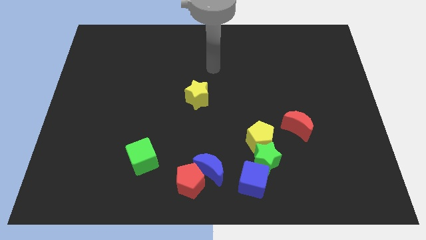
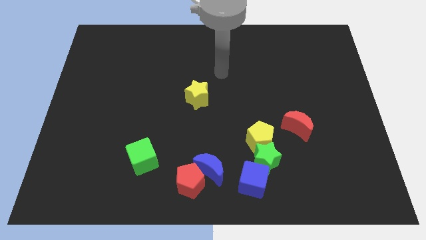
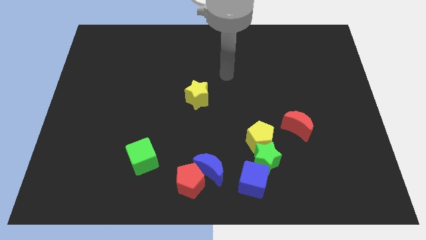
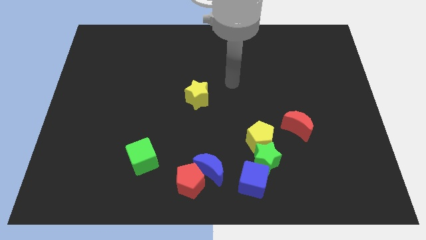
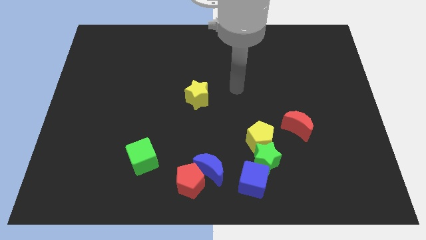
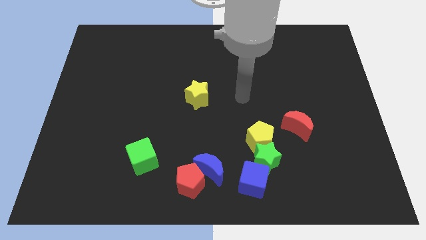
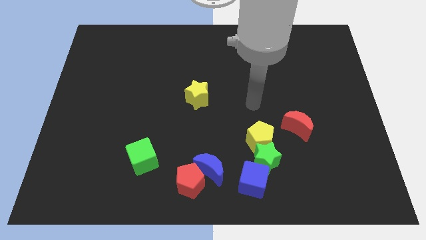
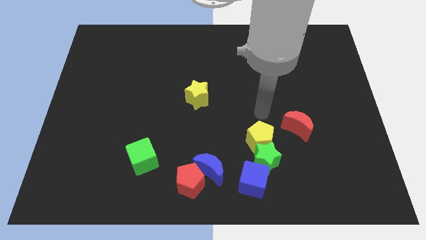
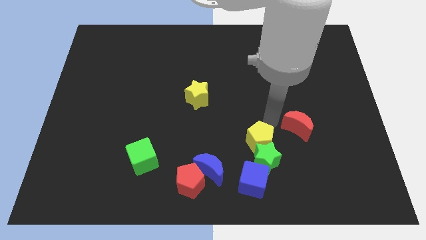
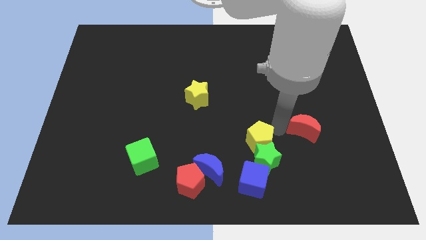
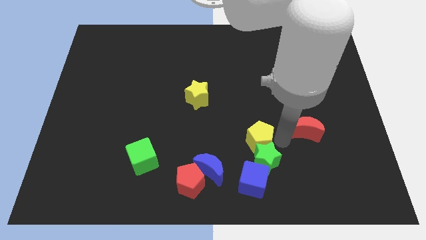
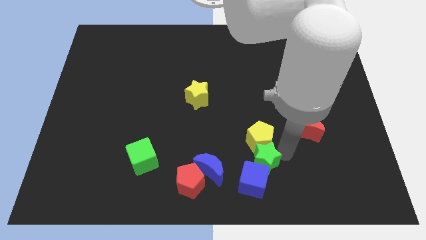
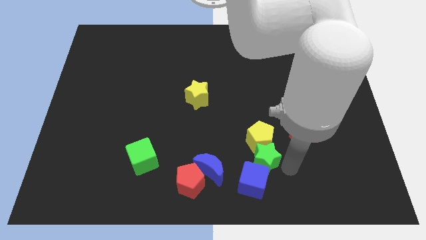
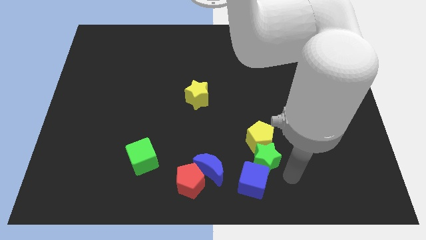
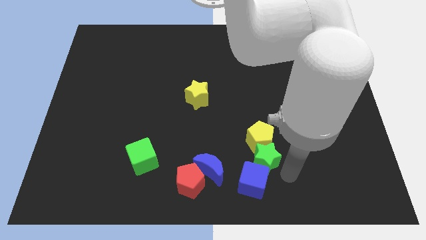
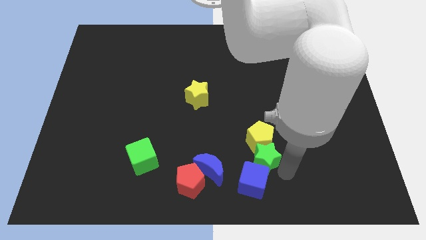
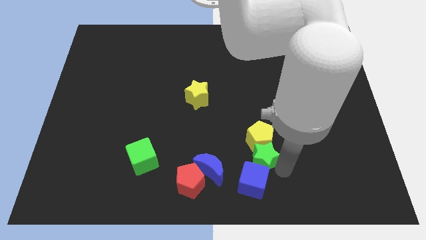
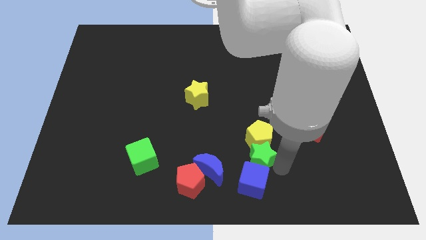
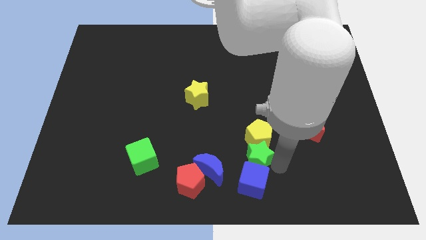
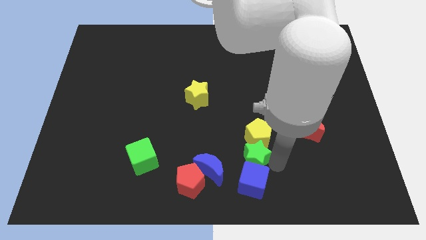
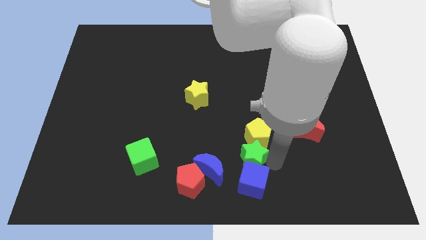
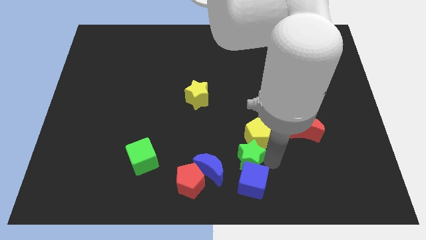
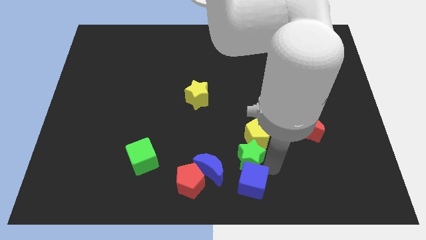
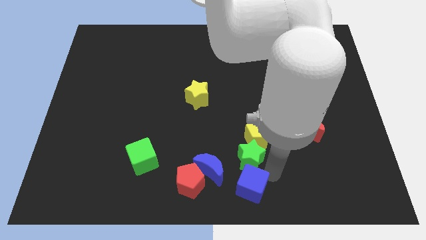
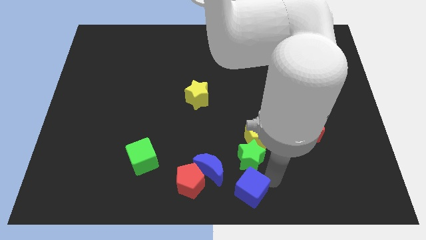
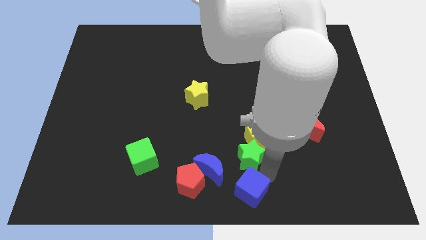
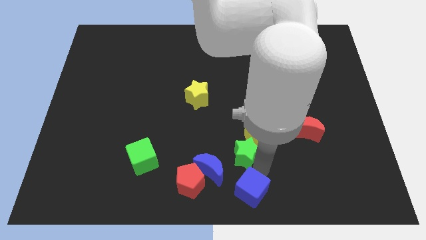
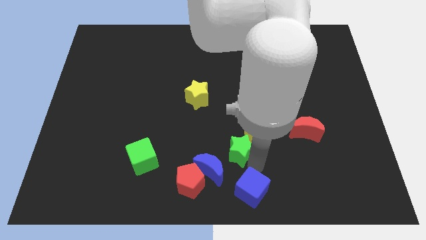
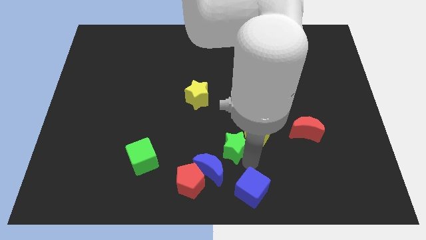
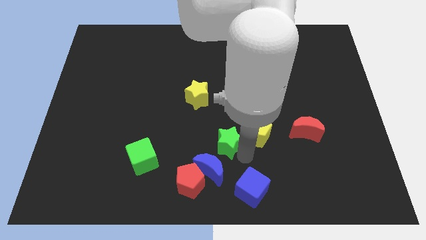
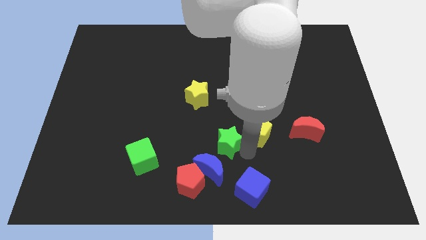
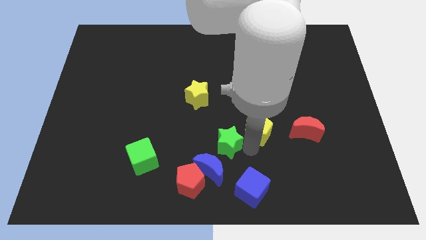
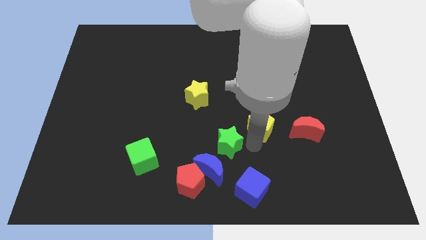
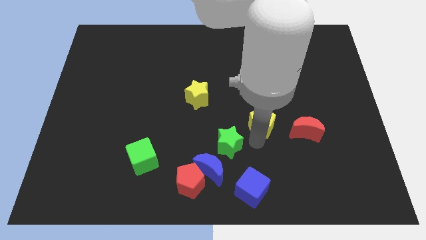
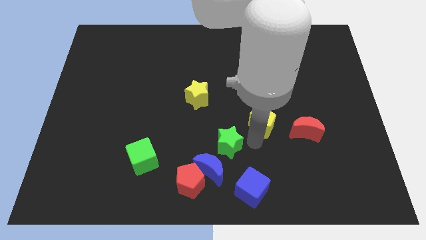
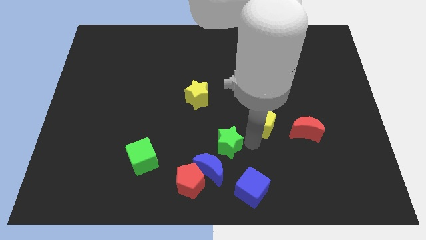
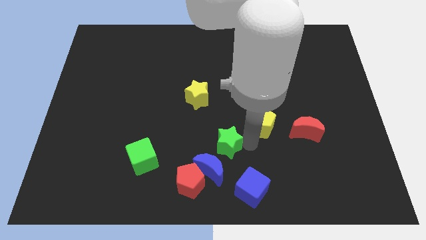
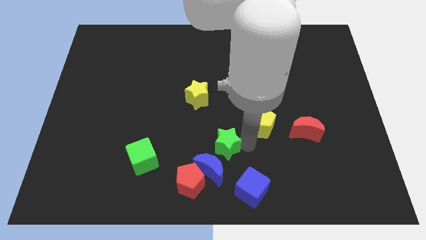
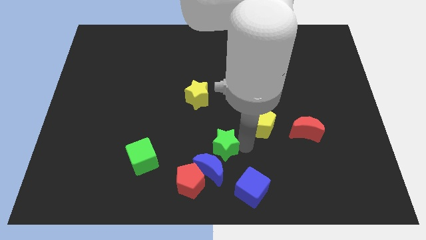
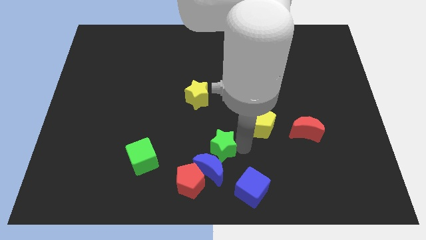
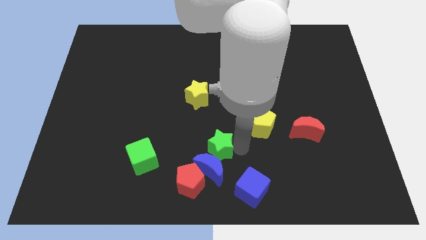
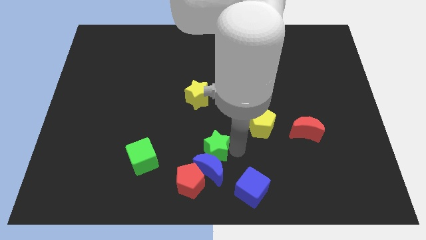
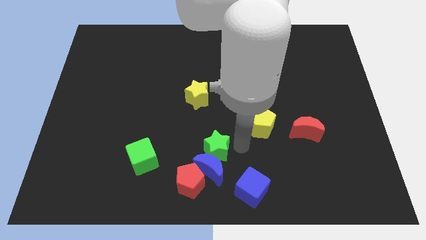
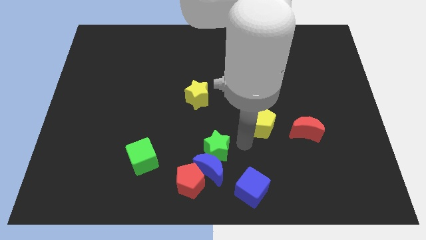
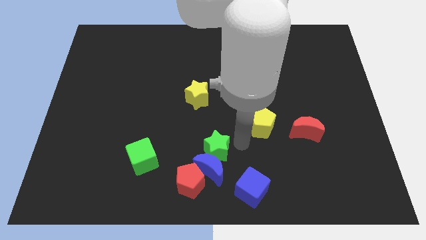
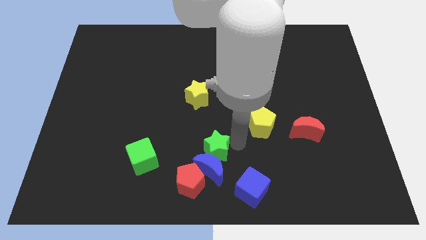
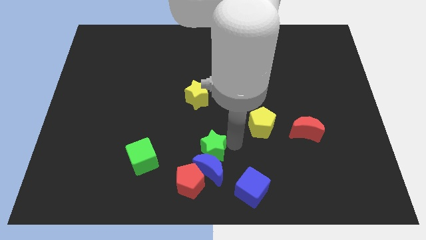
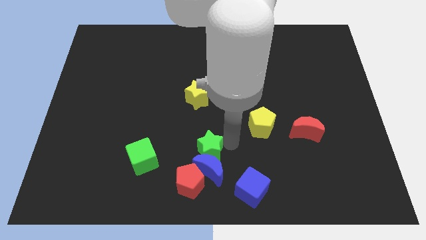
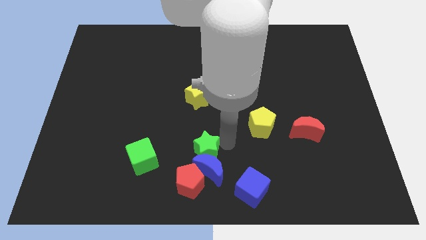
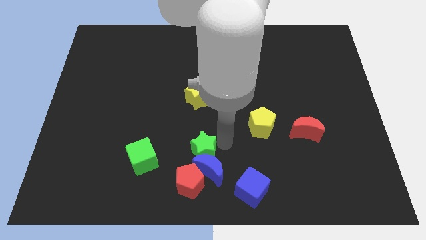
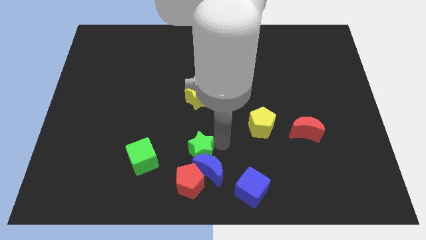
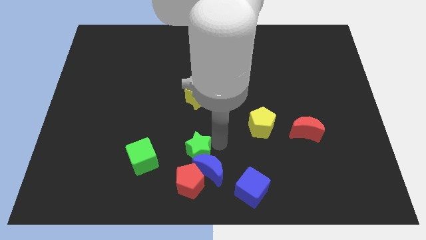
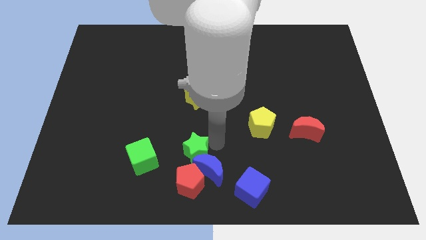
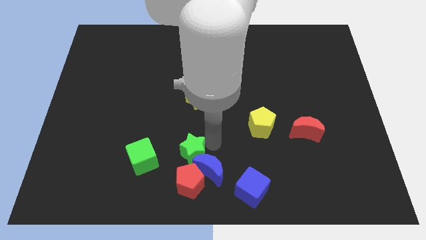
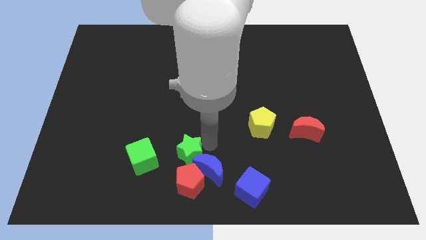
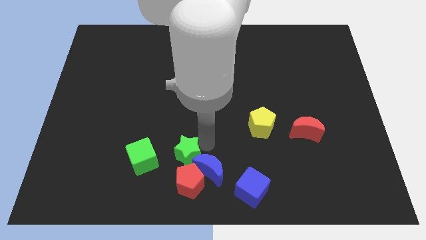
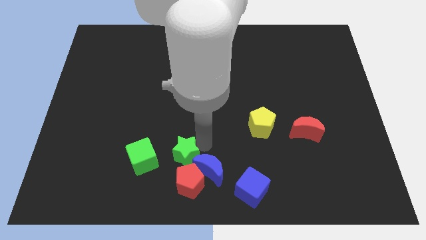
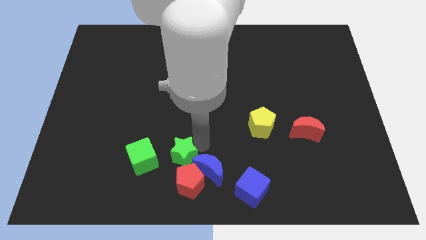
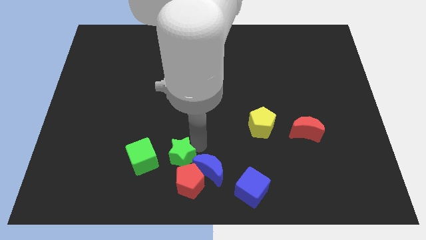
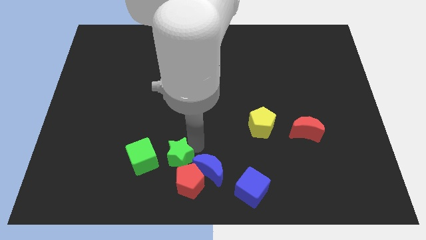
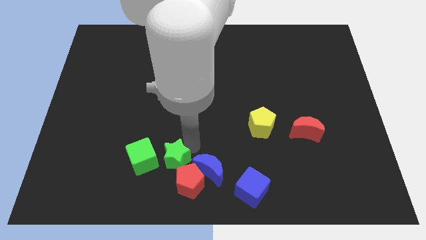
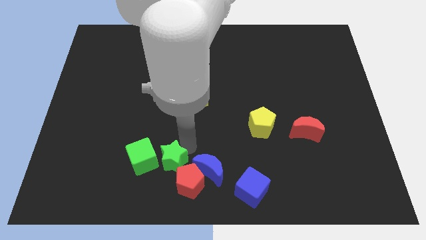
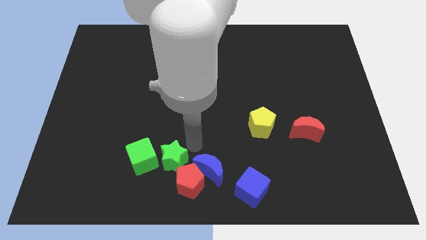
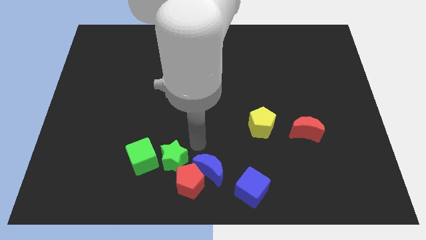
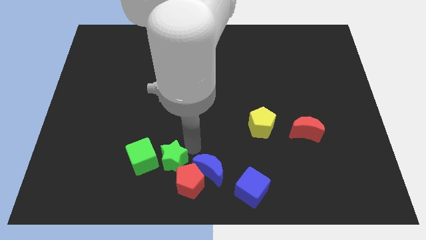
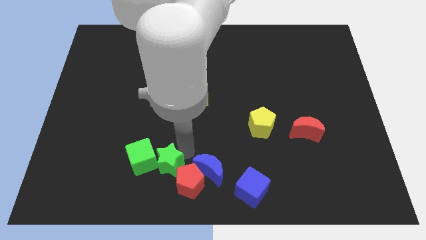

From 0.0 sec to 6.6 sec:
move the green star left

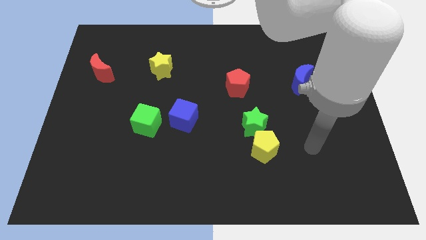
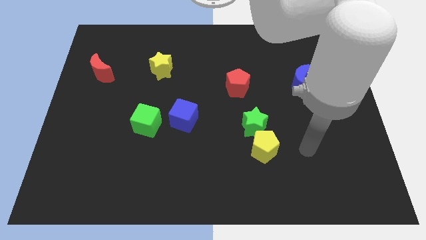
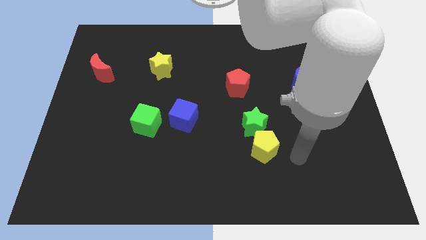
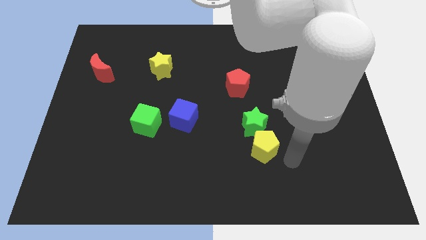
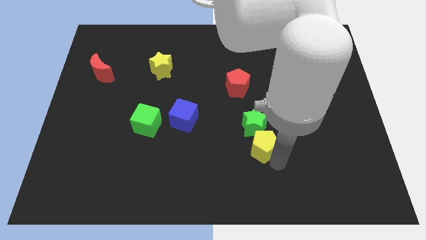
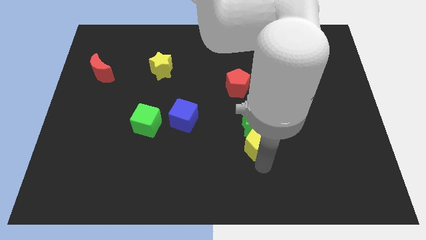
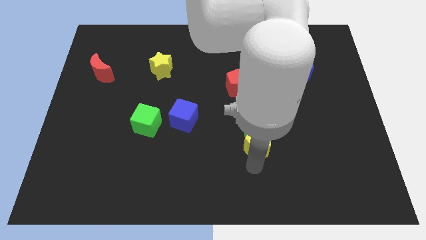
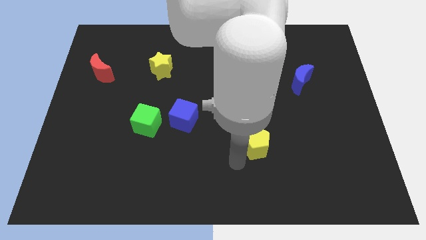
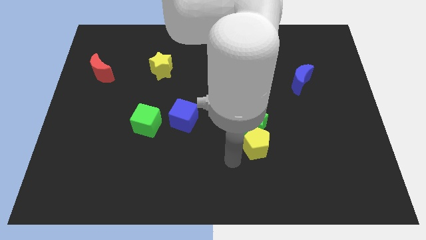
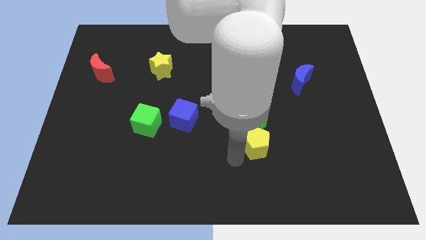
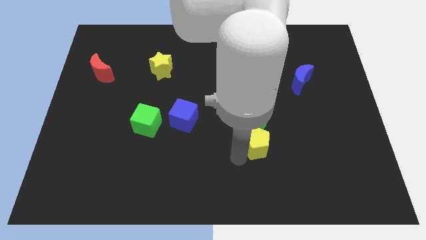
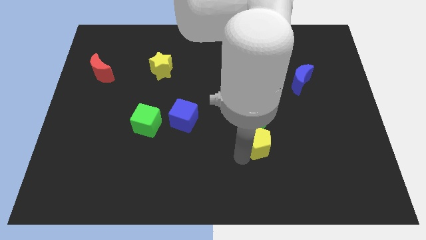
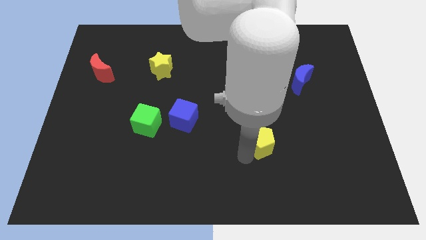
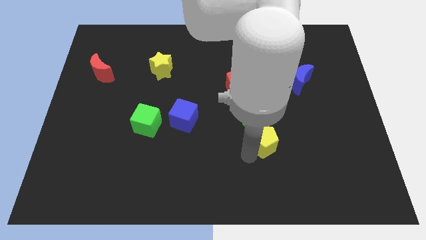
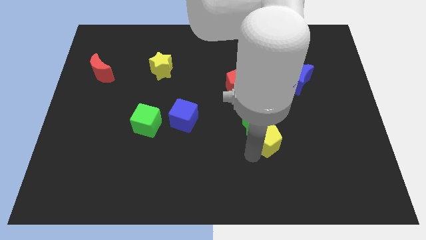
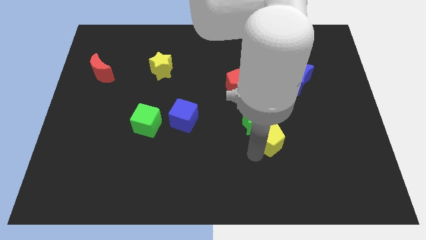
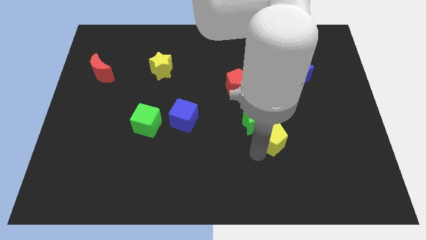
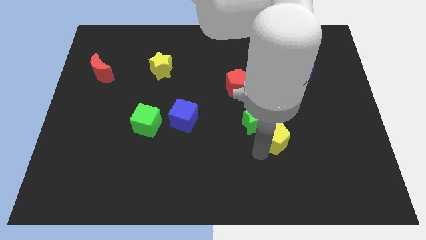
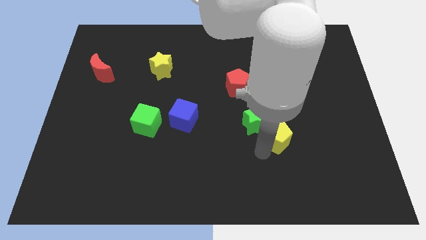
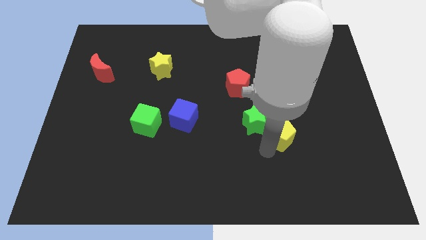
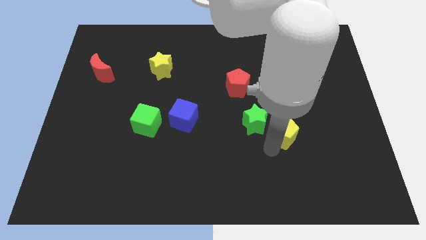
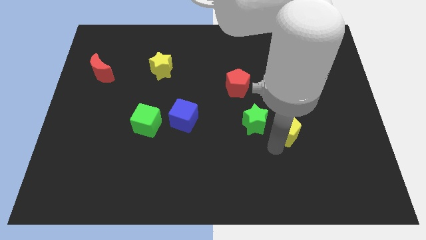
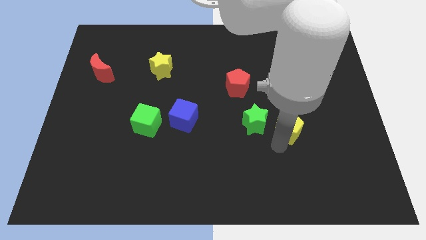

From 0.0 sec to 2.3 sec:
slide the yellow pentagon upwards and then right slightly
